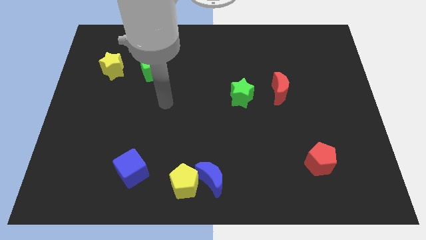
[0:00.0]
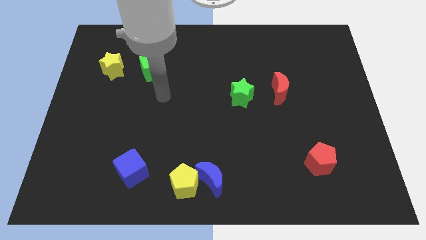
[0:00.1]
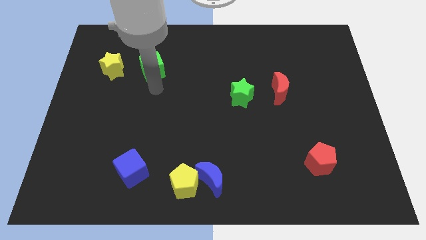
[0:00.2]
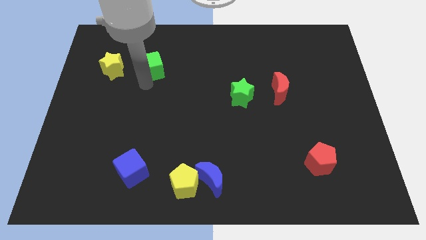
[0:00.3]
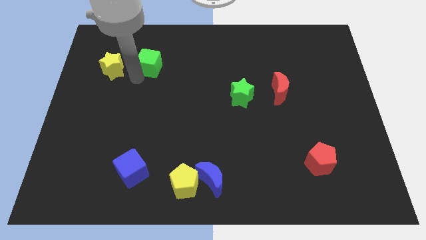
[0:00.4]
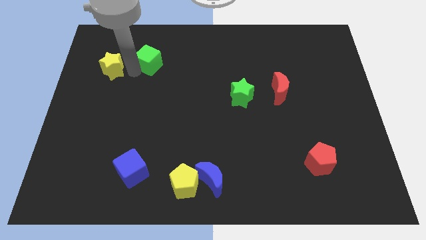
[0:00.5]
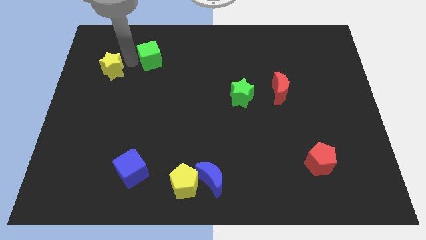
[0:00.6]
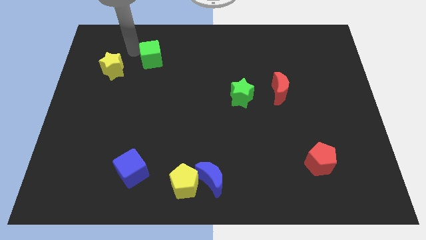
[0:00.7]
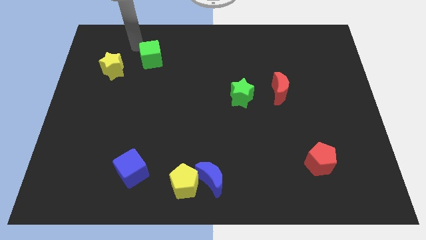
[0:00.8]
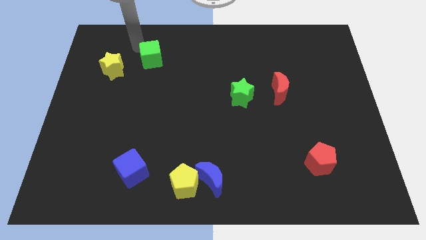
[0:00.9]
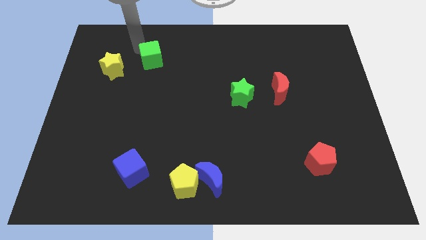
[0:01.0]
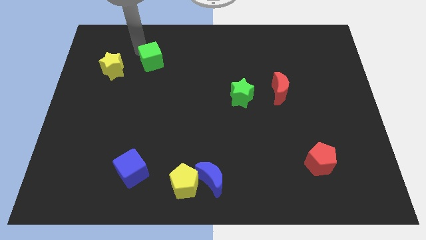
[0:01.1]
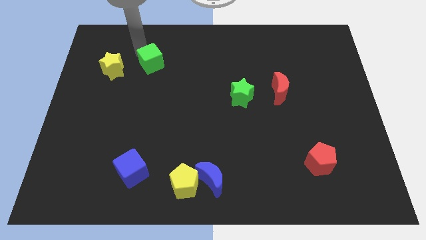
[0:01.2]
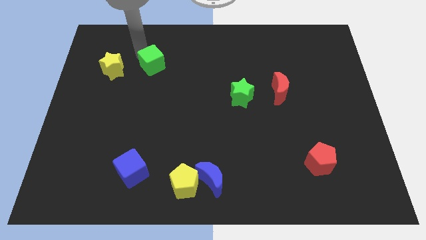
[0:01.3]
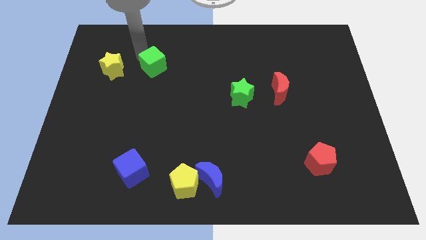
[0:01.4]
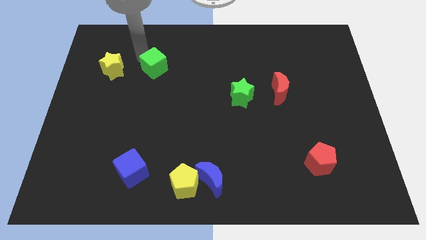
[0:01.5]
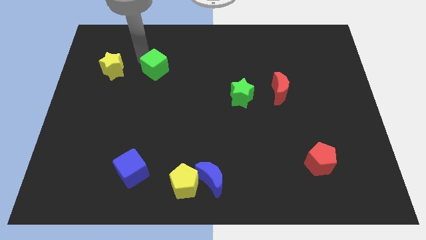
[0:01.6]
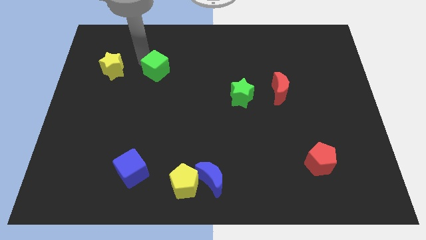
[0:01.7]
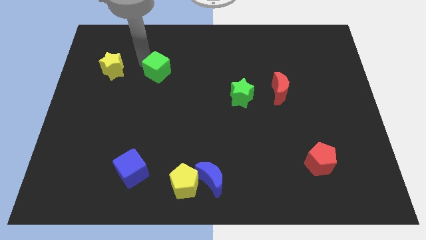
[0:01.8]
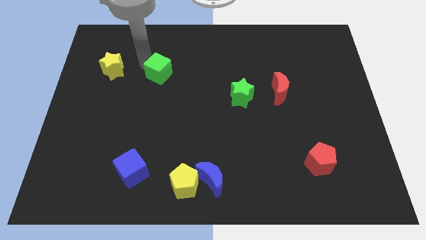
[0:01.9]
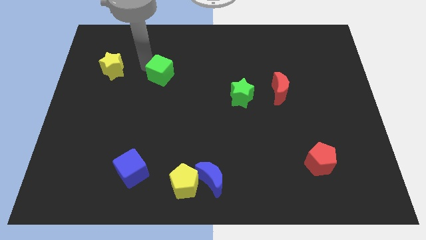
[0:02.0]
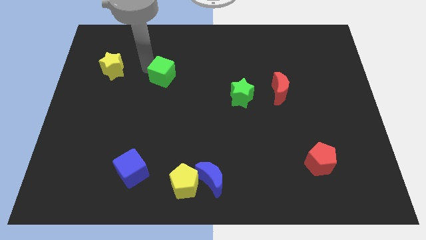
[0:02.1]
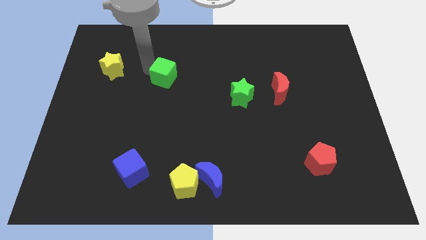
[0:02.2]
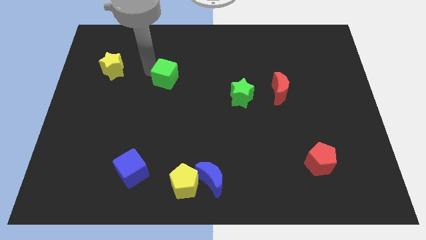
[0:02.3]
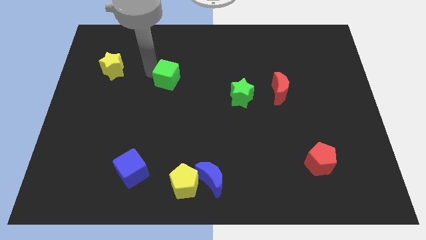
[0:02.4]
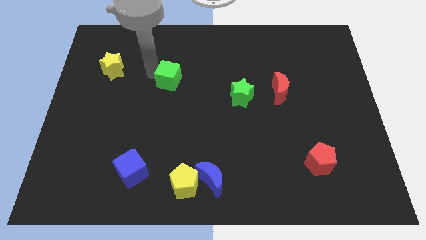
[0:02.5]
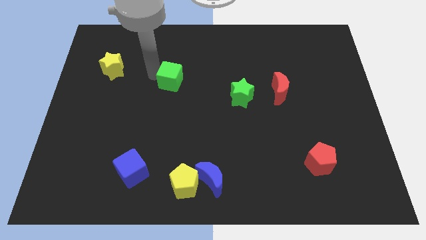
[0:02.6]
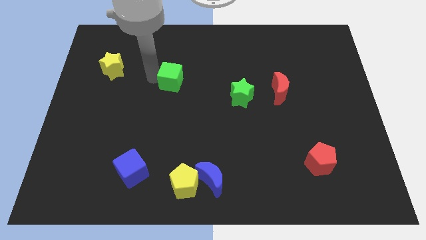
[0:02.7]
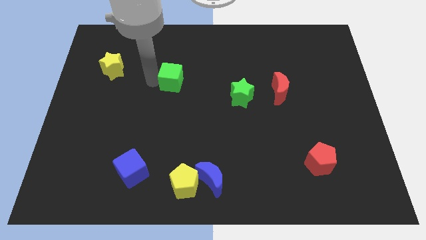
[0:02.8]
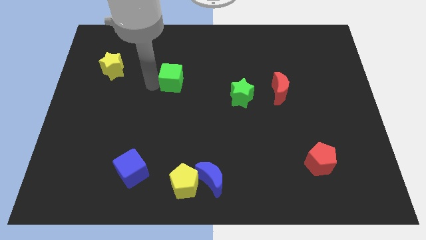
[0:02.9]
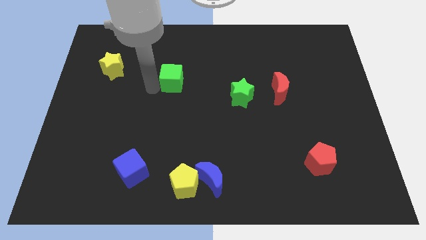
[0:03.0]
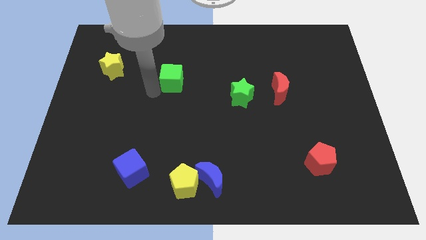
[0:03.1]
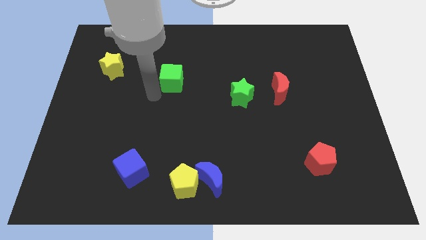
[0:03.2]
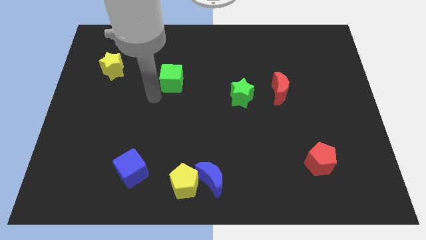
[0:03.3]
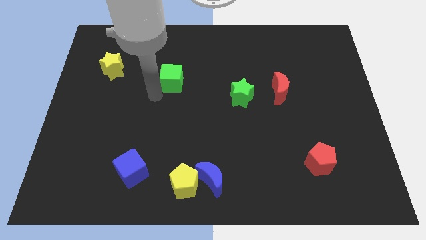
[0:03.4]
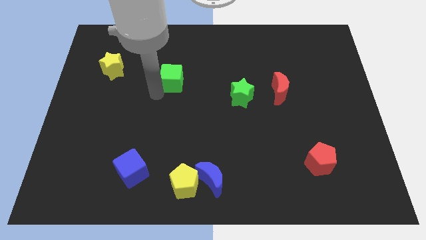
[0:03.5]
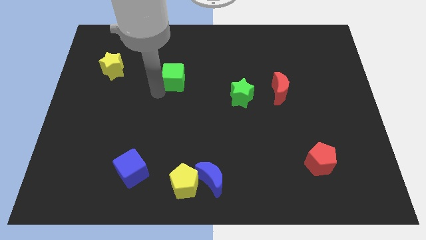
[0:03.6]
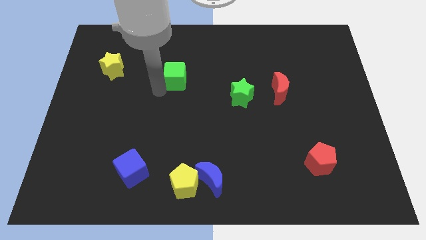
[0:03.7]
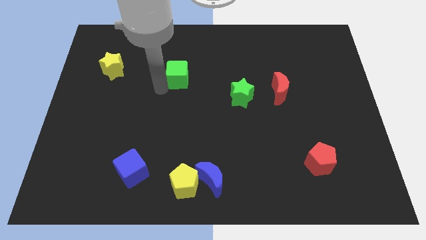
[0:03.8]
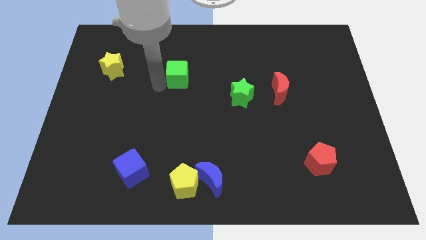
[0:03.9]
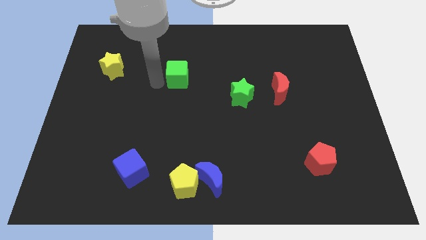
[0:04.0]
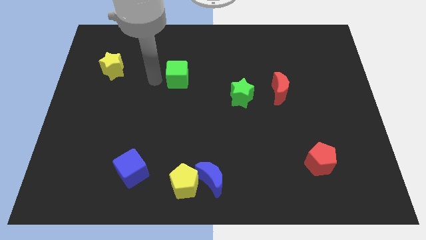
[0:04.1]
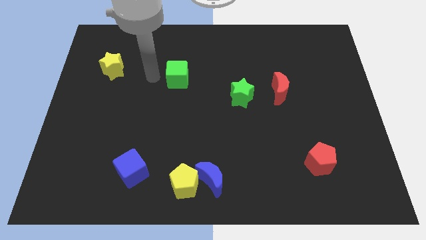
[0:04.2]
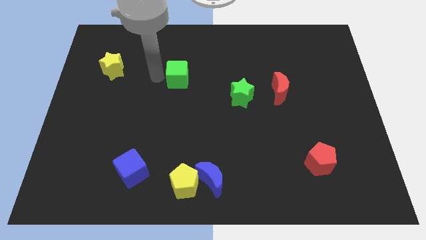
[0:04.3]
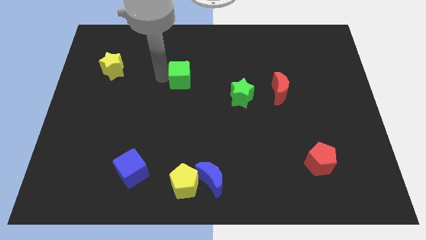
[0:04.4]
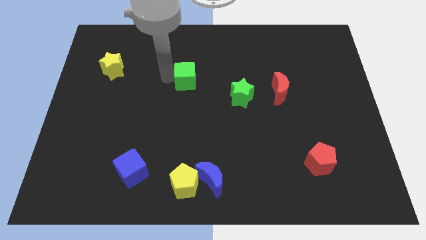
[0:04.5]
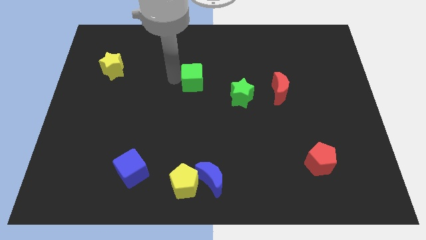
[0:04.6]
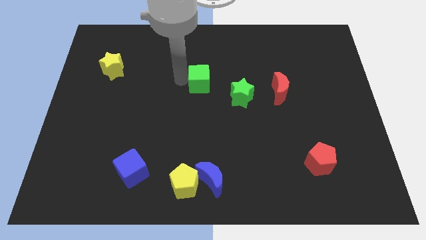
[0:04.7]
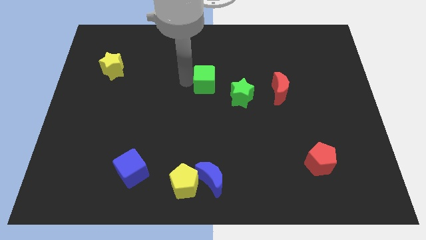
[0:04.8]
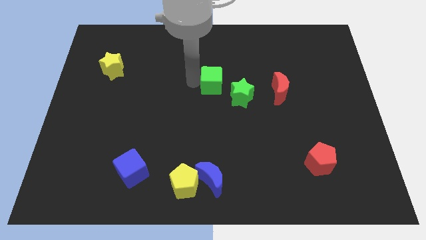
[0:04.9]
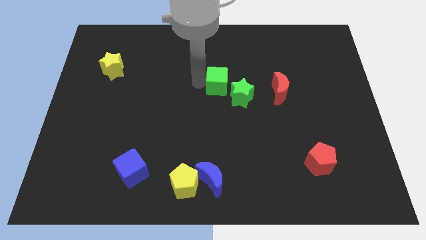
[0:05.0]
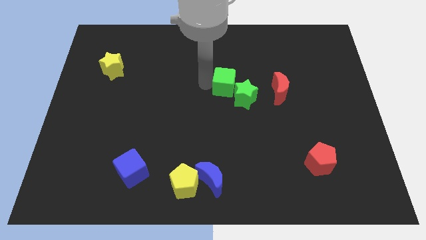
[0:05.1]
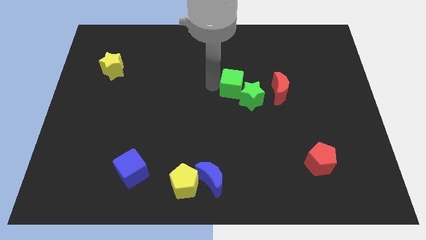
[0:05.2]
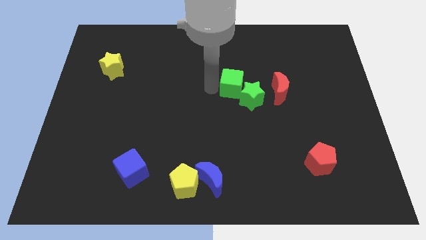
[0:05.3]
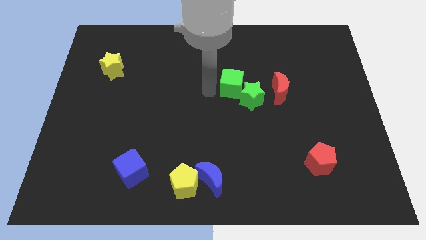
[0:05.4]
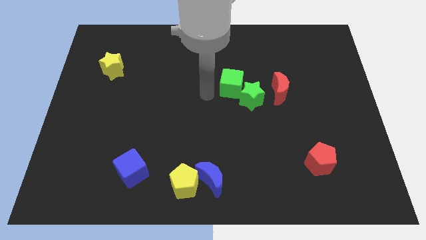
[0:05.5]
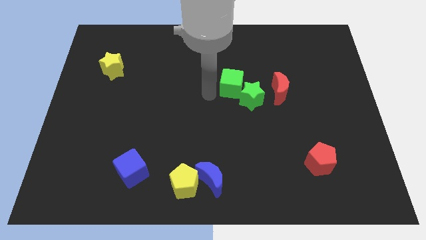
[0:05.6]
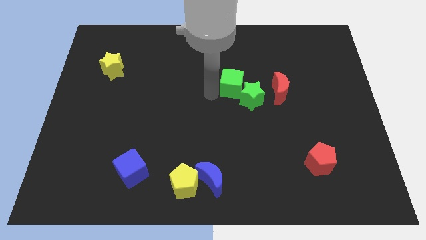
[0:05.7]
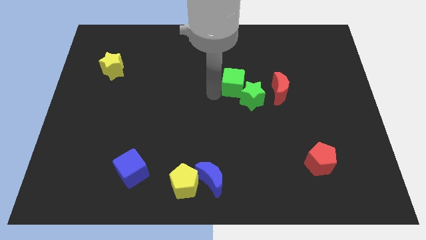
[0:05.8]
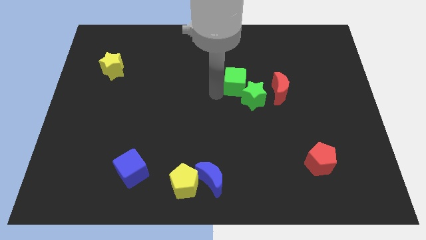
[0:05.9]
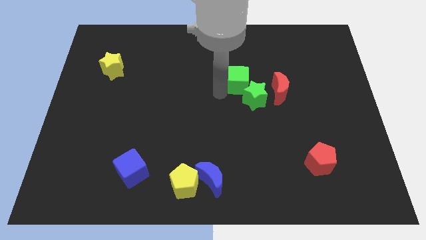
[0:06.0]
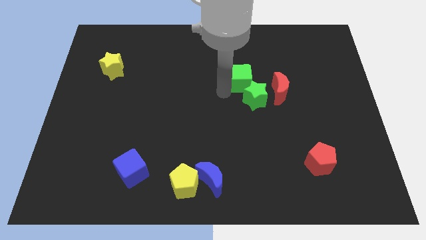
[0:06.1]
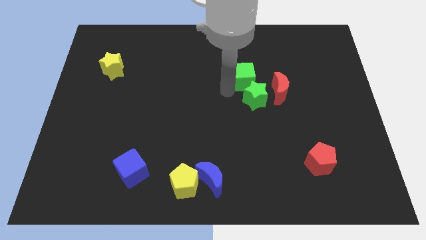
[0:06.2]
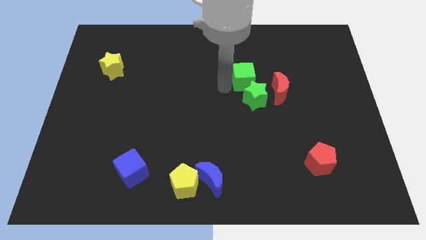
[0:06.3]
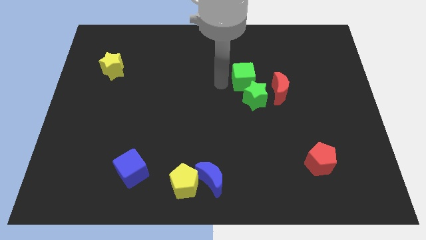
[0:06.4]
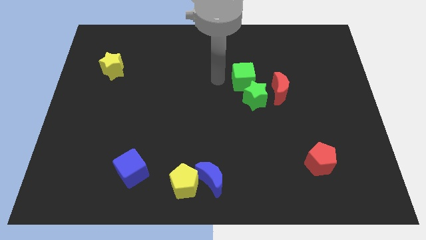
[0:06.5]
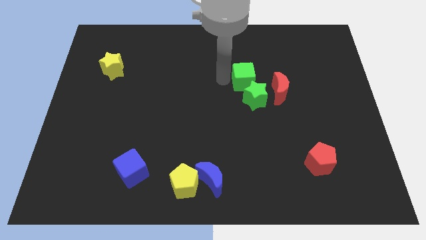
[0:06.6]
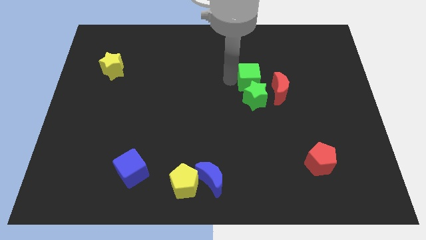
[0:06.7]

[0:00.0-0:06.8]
slide the green cube to the top right side of the green star
